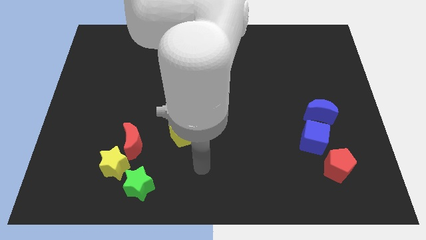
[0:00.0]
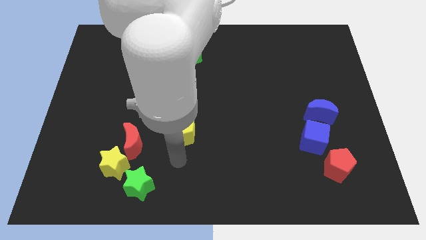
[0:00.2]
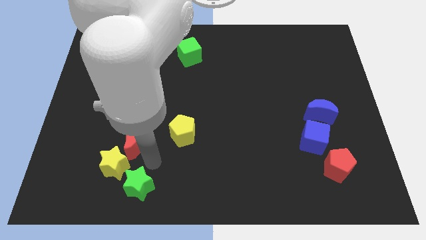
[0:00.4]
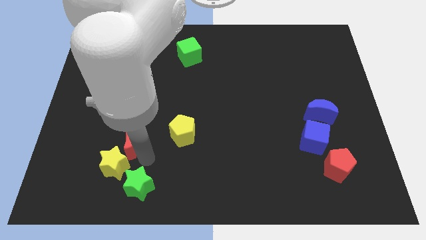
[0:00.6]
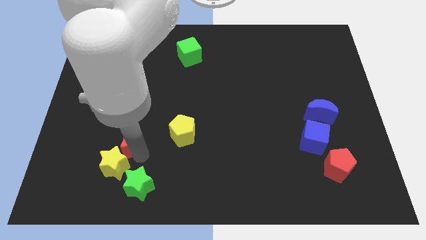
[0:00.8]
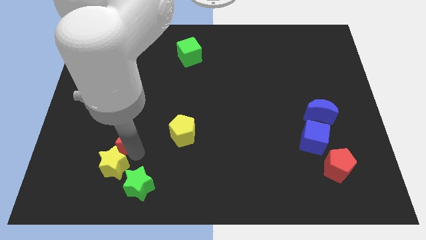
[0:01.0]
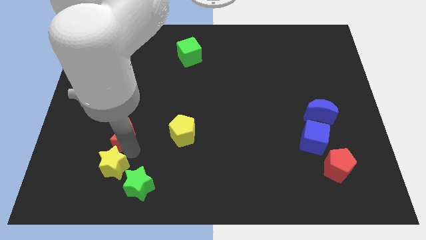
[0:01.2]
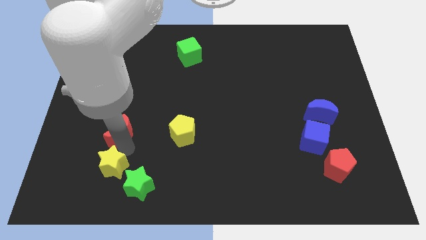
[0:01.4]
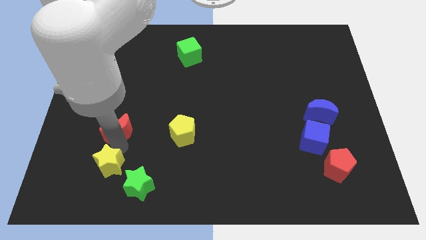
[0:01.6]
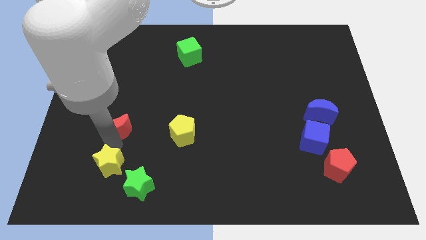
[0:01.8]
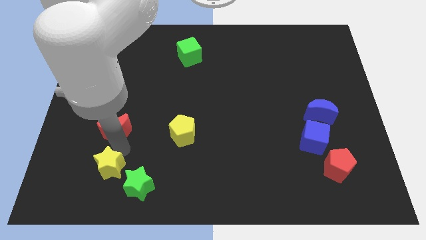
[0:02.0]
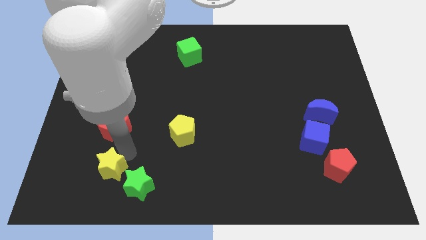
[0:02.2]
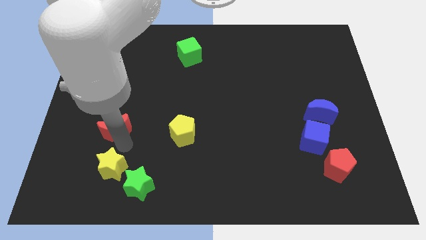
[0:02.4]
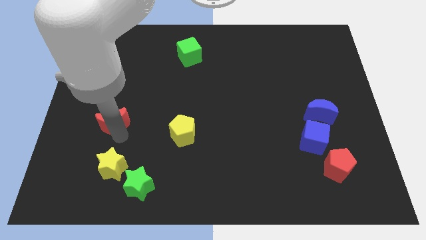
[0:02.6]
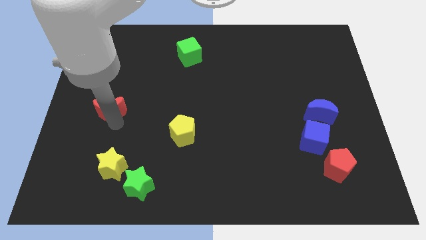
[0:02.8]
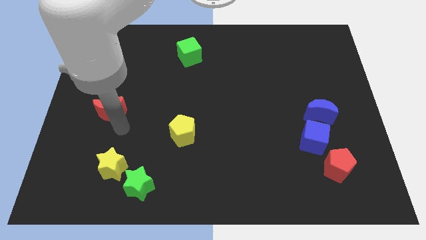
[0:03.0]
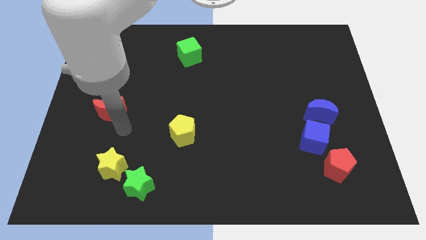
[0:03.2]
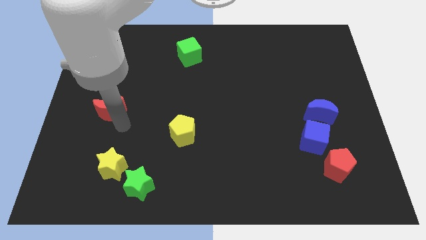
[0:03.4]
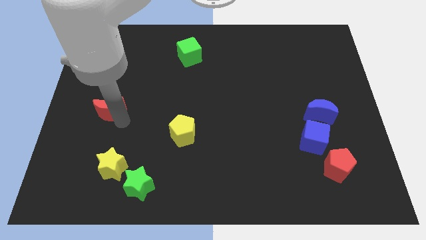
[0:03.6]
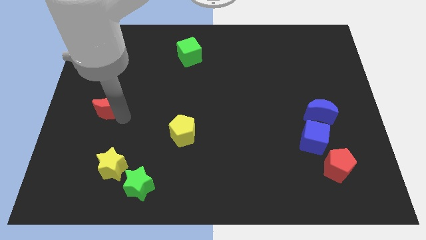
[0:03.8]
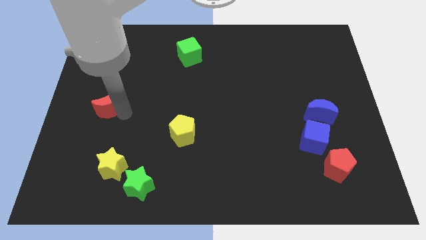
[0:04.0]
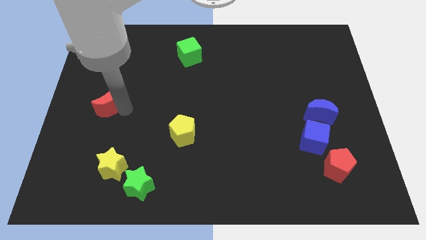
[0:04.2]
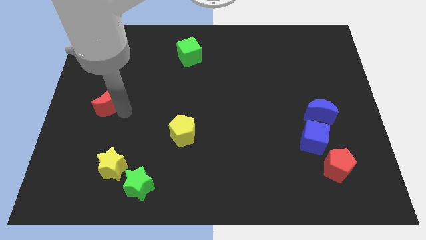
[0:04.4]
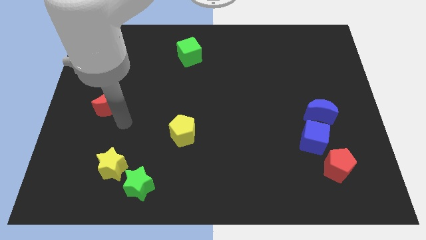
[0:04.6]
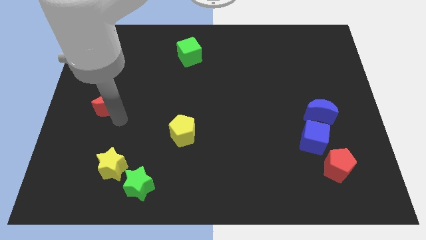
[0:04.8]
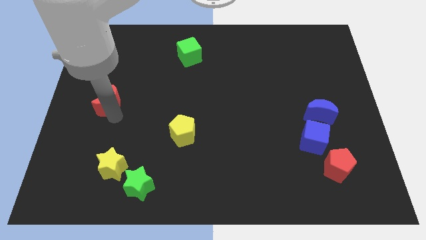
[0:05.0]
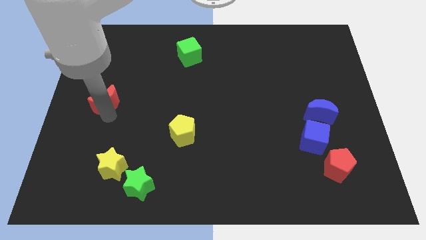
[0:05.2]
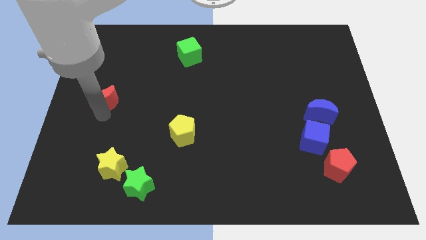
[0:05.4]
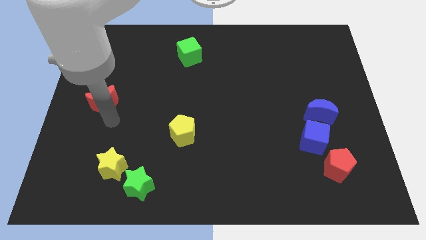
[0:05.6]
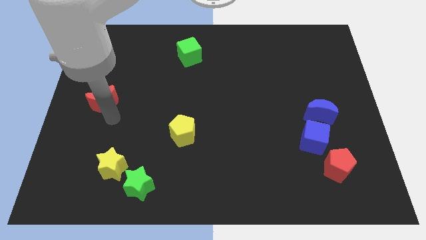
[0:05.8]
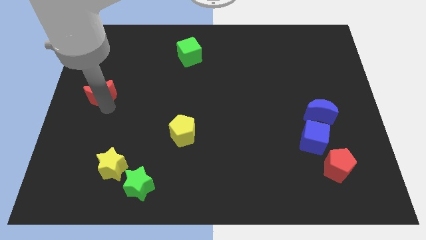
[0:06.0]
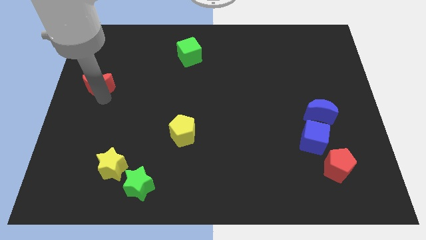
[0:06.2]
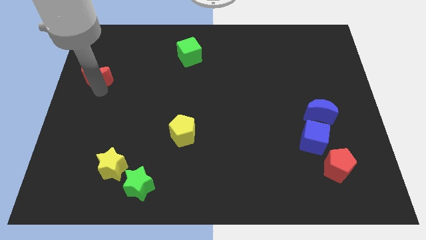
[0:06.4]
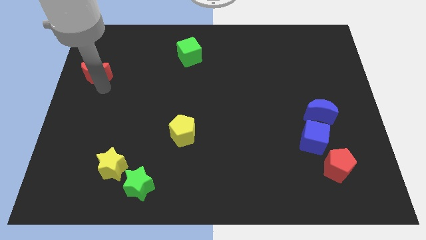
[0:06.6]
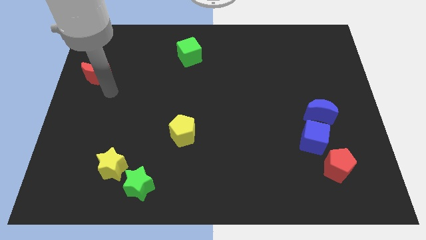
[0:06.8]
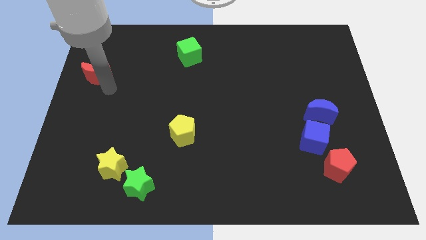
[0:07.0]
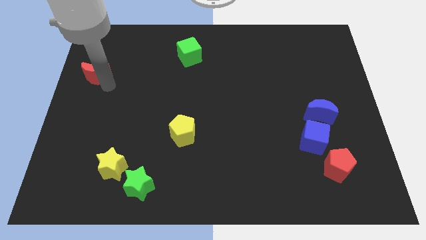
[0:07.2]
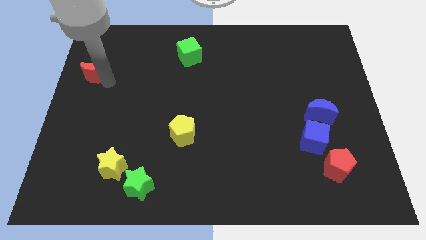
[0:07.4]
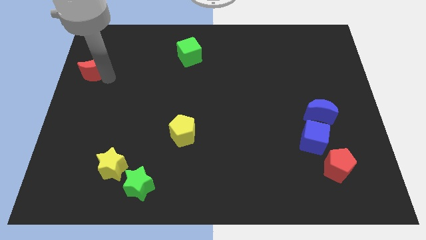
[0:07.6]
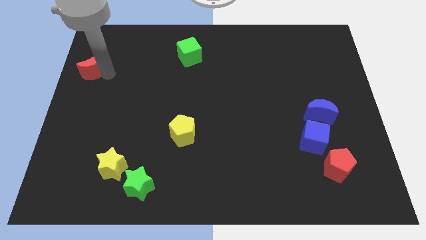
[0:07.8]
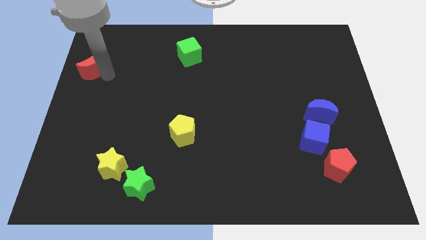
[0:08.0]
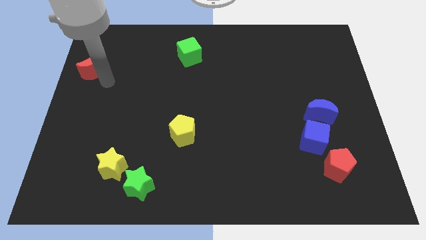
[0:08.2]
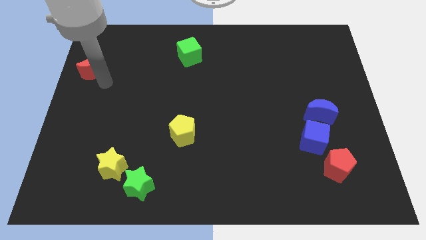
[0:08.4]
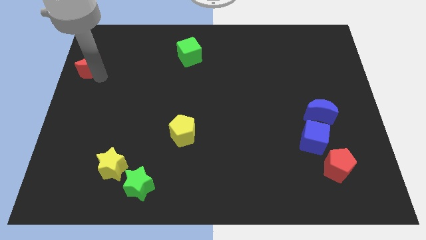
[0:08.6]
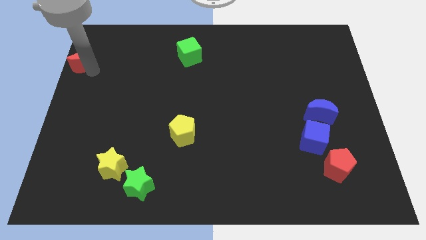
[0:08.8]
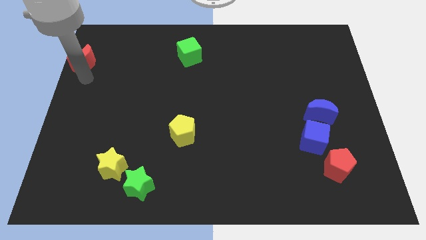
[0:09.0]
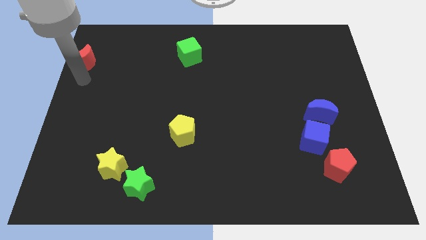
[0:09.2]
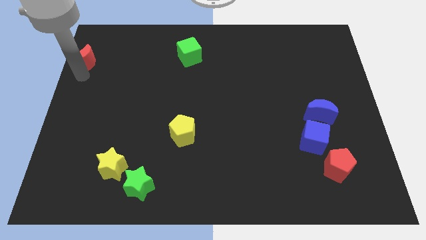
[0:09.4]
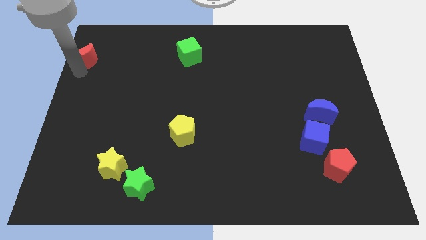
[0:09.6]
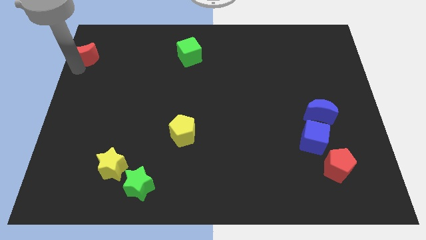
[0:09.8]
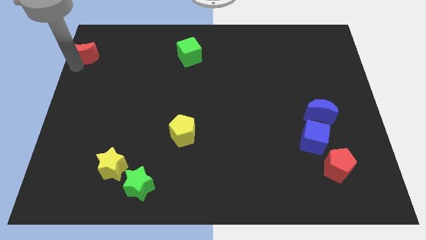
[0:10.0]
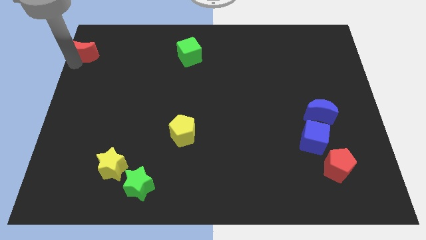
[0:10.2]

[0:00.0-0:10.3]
put the red moon to the upper left corner

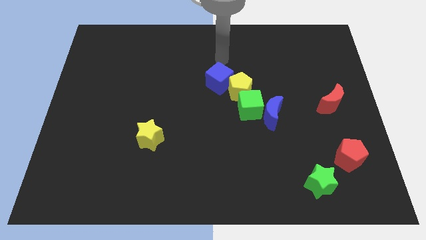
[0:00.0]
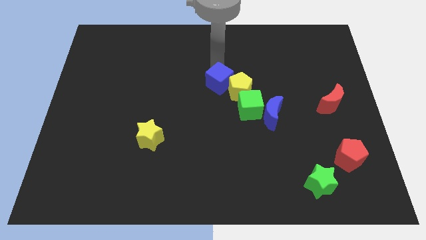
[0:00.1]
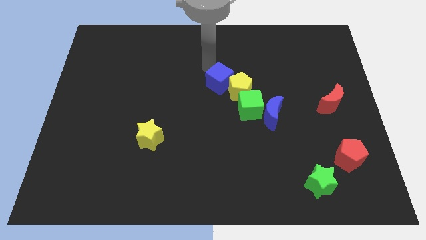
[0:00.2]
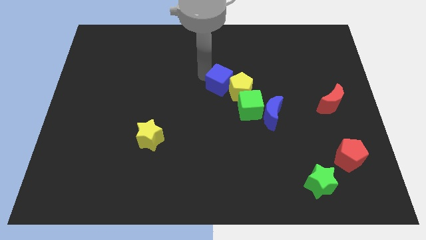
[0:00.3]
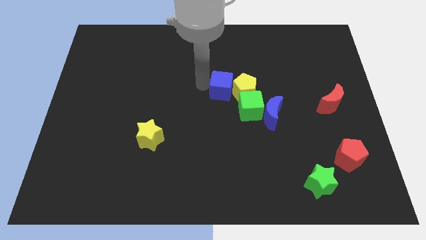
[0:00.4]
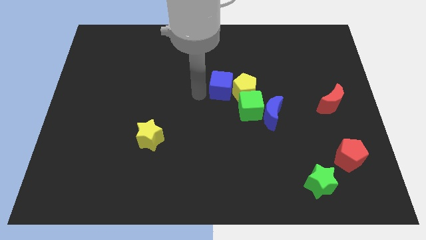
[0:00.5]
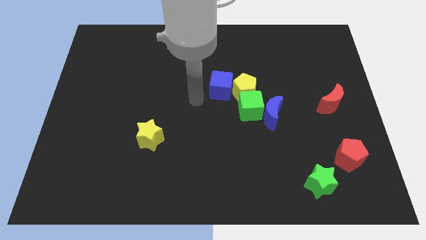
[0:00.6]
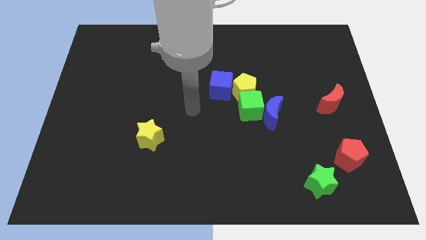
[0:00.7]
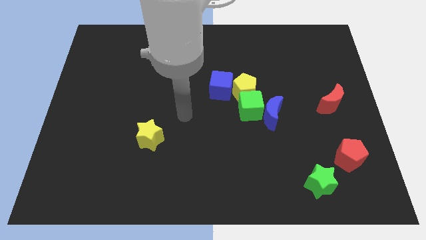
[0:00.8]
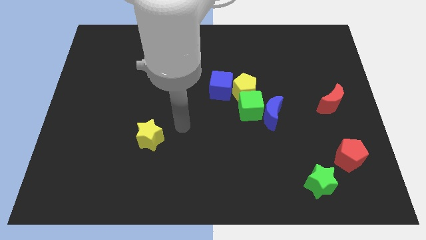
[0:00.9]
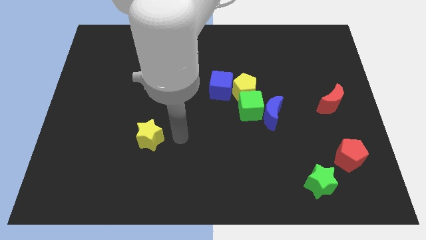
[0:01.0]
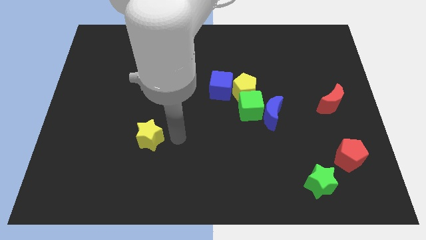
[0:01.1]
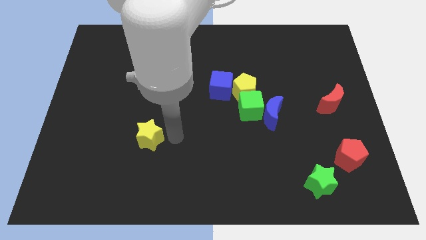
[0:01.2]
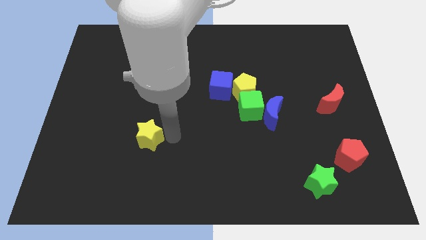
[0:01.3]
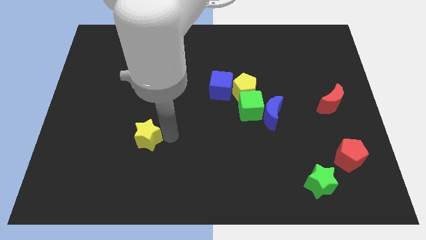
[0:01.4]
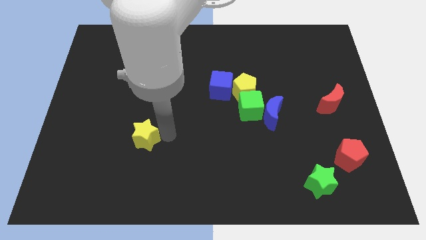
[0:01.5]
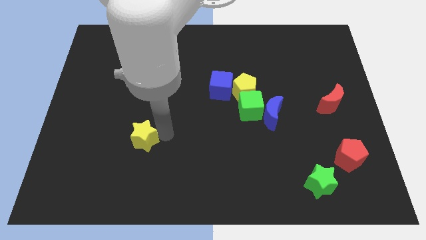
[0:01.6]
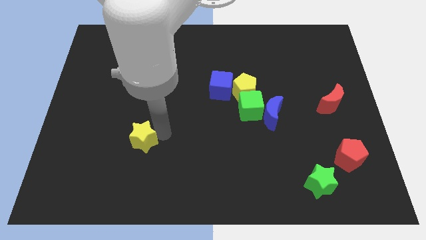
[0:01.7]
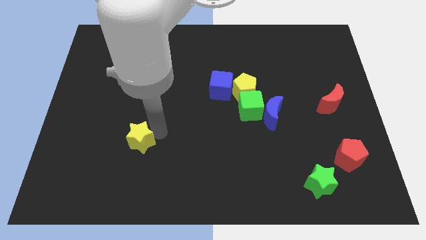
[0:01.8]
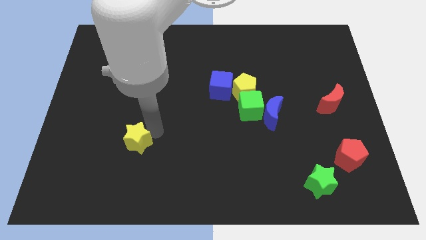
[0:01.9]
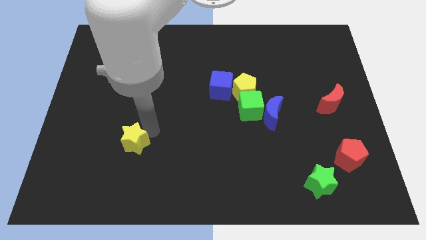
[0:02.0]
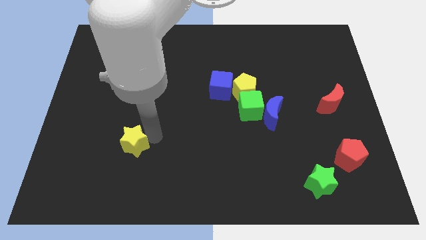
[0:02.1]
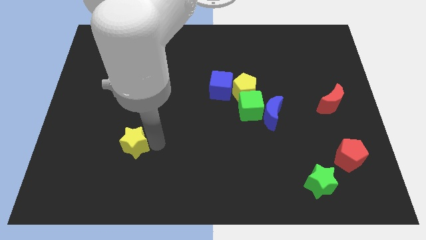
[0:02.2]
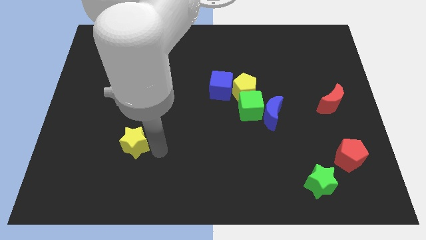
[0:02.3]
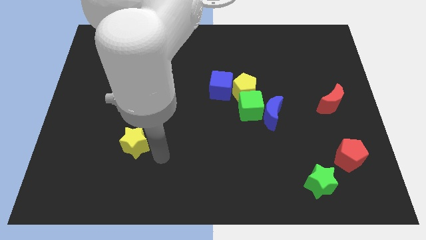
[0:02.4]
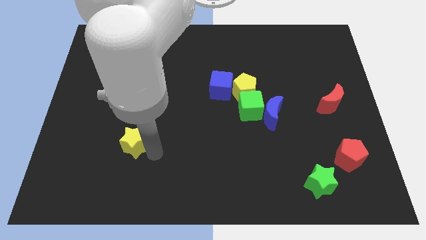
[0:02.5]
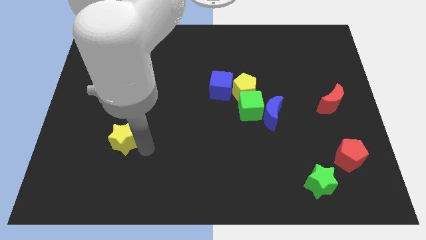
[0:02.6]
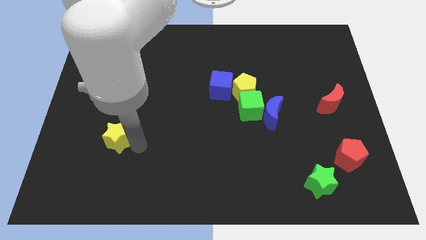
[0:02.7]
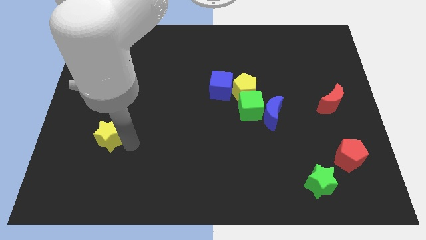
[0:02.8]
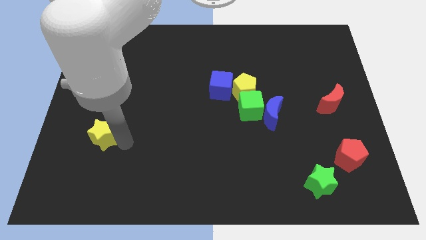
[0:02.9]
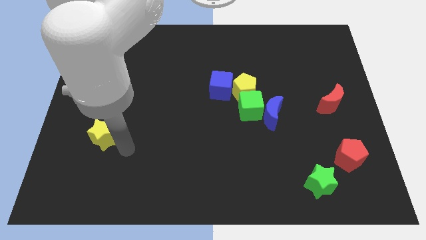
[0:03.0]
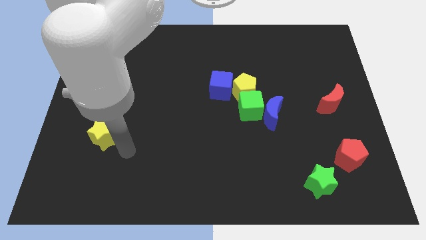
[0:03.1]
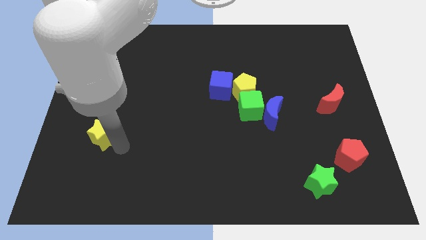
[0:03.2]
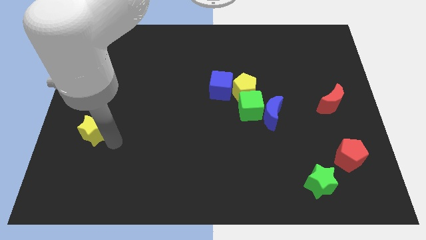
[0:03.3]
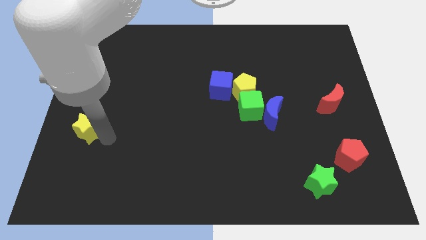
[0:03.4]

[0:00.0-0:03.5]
push the yellow star to the left side
